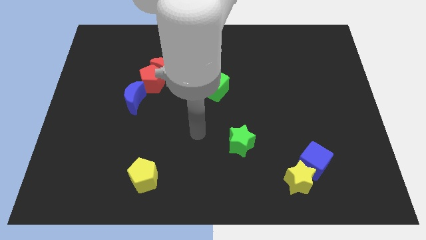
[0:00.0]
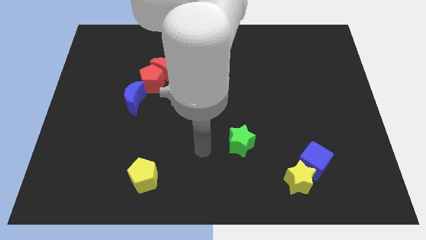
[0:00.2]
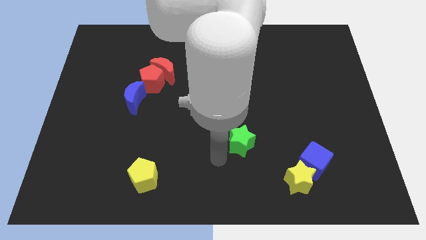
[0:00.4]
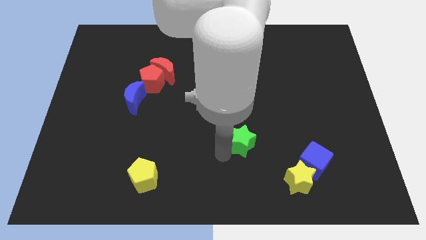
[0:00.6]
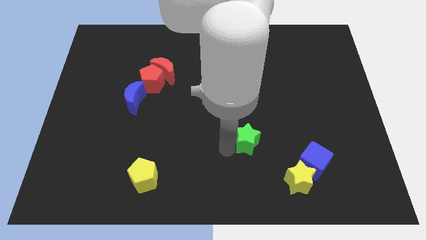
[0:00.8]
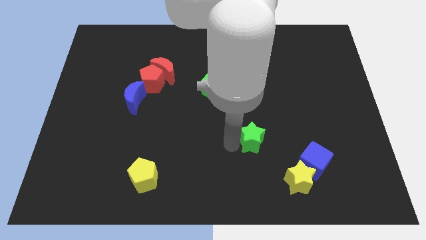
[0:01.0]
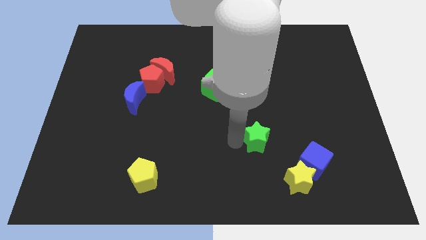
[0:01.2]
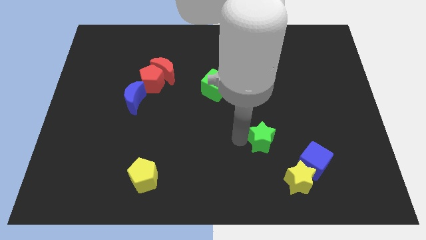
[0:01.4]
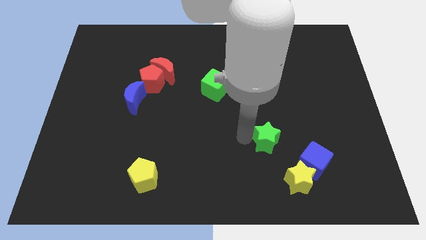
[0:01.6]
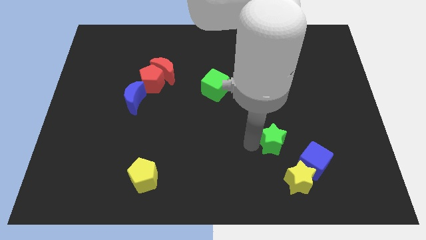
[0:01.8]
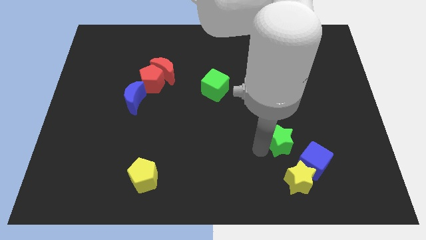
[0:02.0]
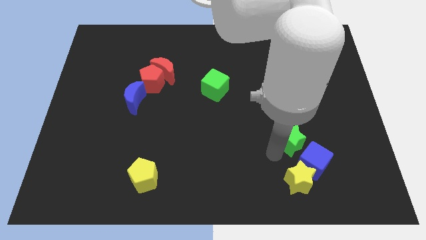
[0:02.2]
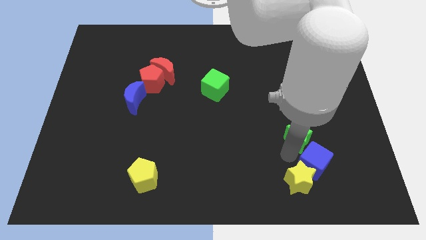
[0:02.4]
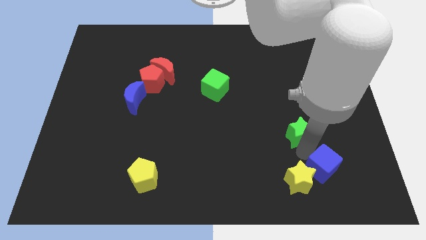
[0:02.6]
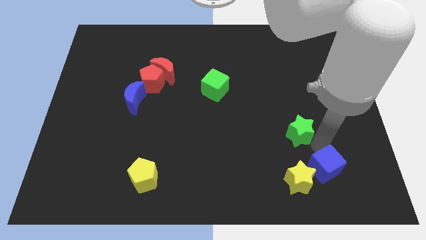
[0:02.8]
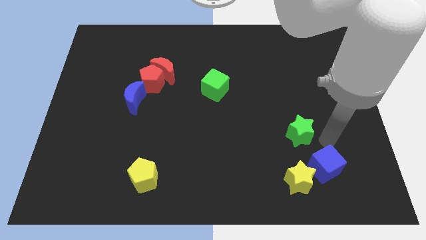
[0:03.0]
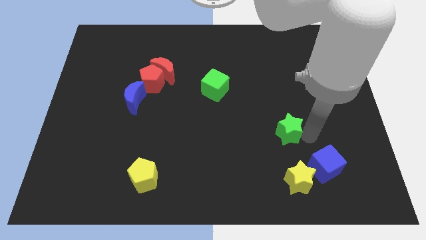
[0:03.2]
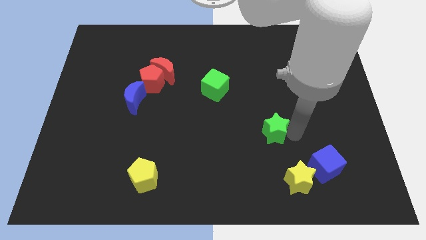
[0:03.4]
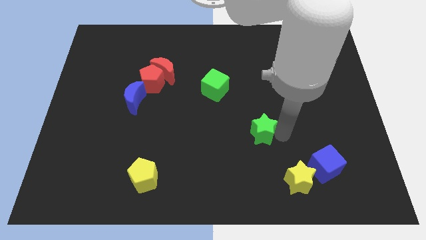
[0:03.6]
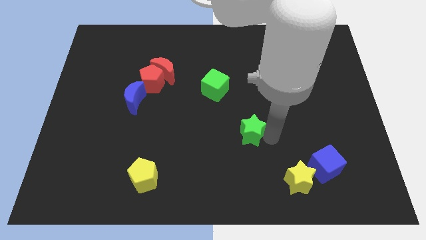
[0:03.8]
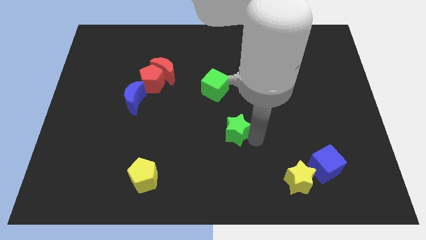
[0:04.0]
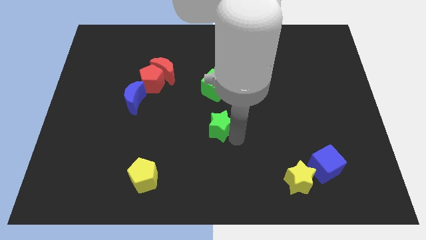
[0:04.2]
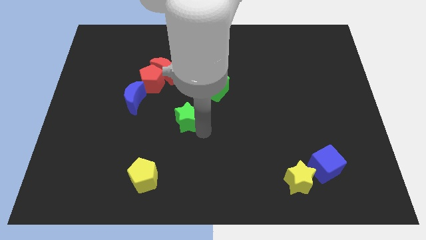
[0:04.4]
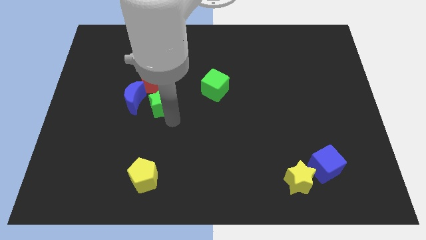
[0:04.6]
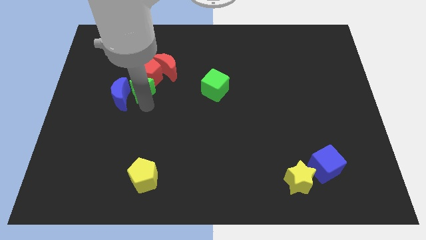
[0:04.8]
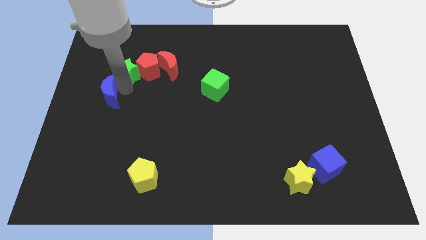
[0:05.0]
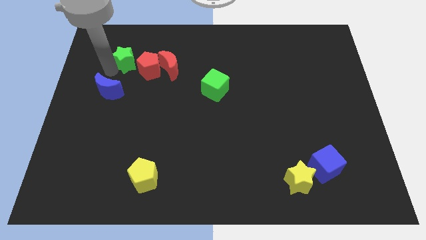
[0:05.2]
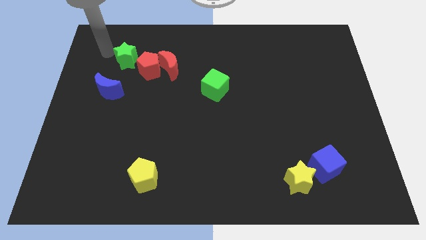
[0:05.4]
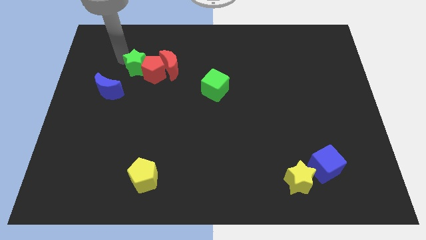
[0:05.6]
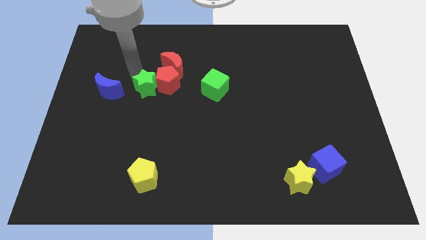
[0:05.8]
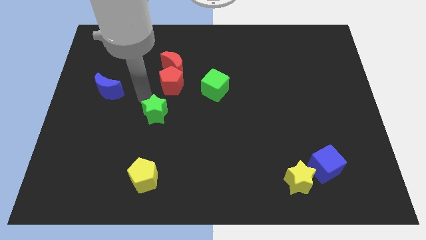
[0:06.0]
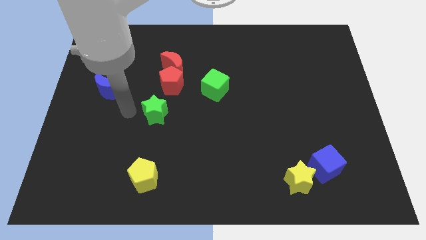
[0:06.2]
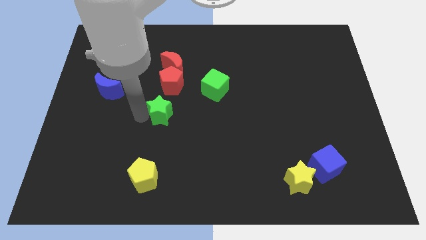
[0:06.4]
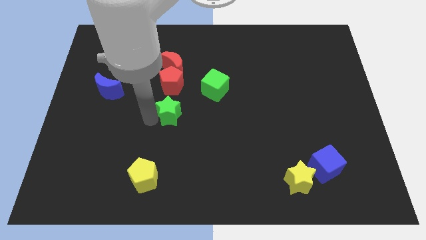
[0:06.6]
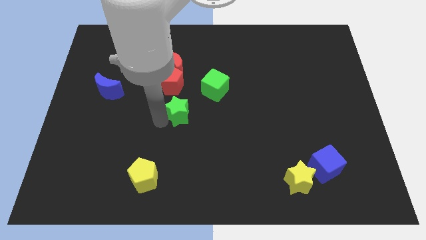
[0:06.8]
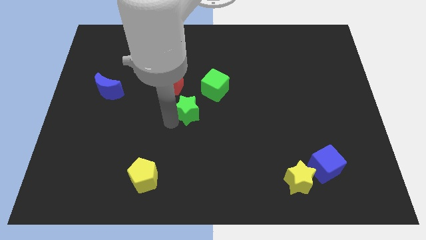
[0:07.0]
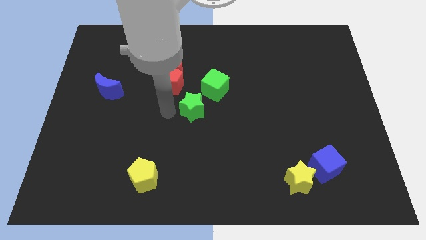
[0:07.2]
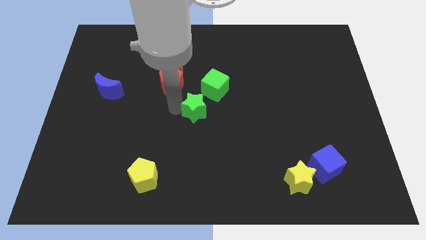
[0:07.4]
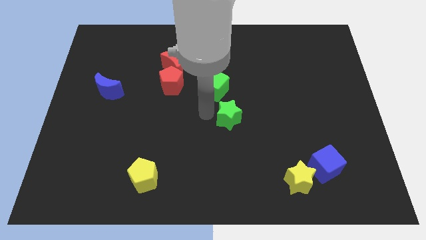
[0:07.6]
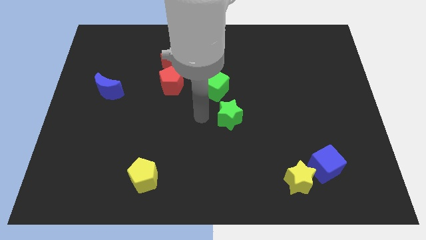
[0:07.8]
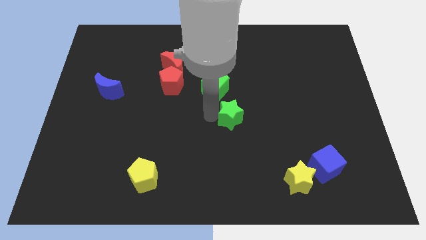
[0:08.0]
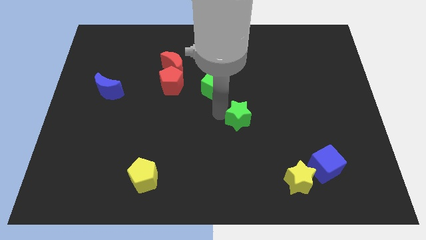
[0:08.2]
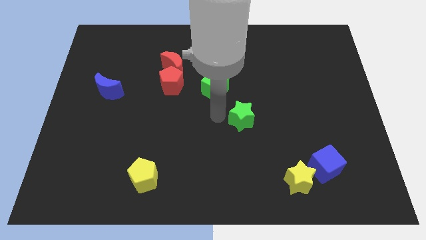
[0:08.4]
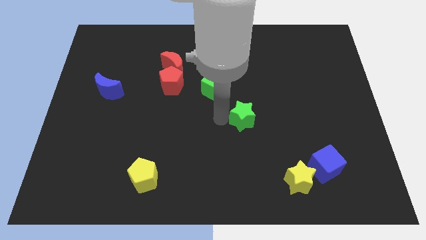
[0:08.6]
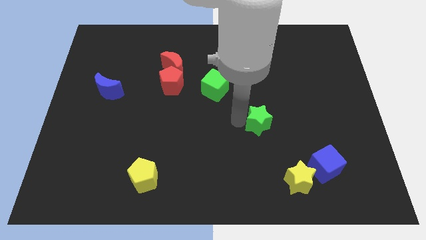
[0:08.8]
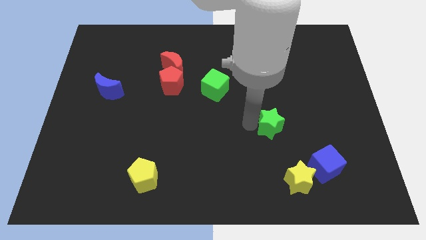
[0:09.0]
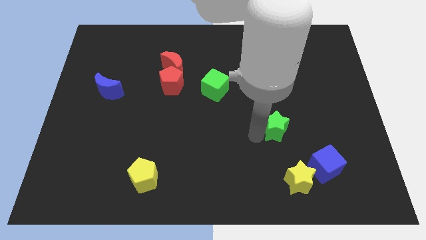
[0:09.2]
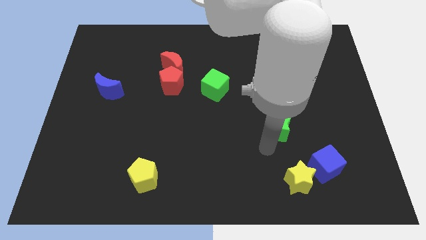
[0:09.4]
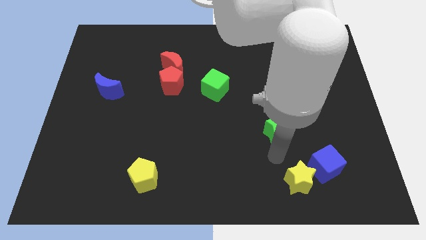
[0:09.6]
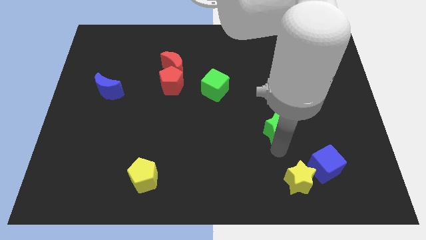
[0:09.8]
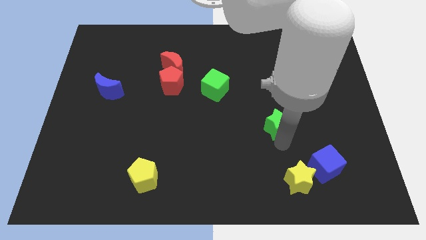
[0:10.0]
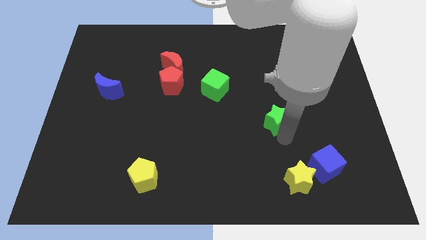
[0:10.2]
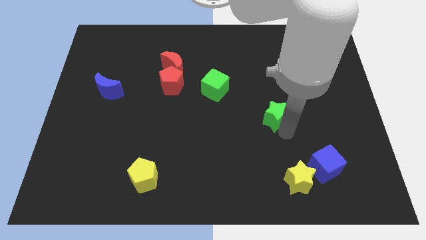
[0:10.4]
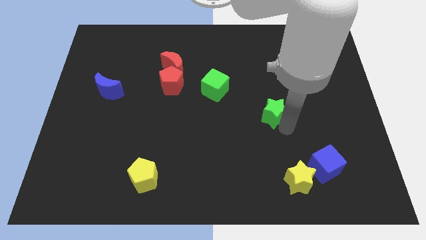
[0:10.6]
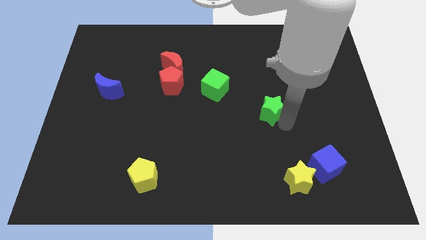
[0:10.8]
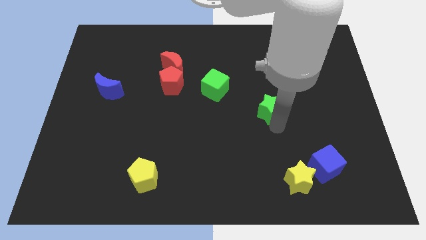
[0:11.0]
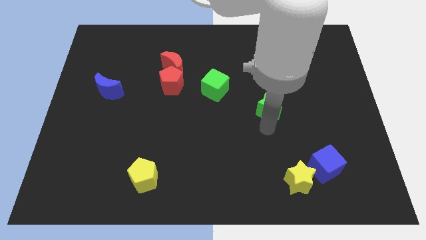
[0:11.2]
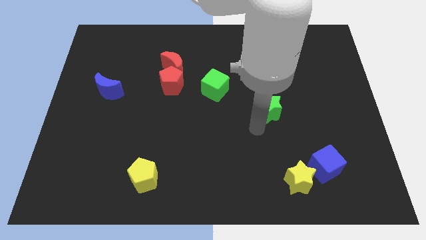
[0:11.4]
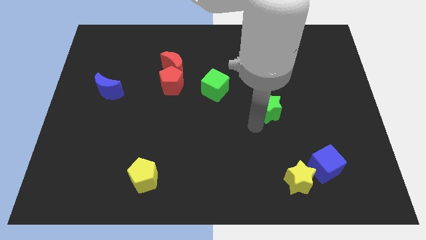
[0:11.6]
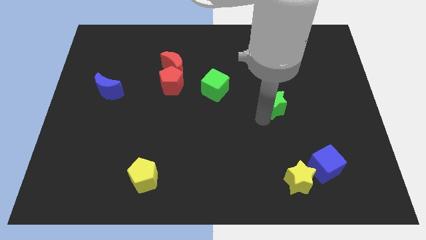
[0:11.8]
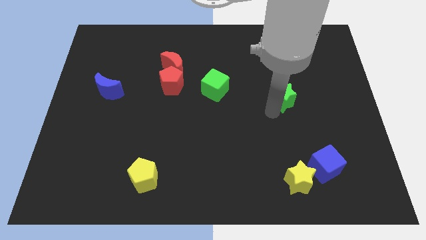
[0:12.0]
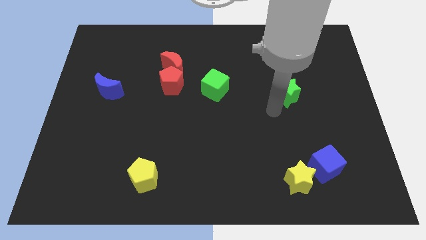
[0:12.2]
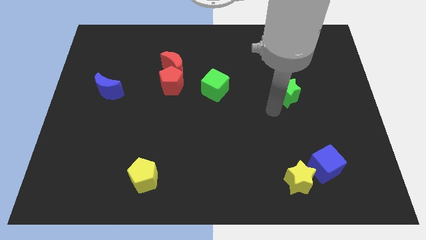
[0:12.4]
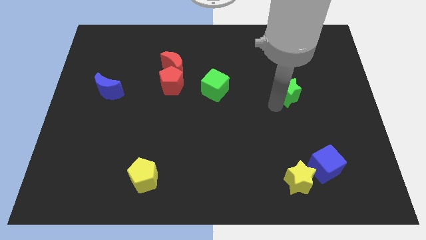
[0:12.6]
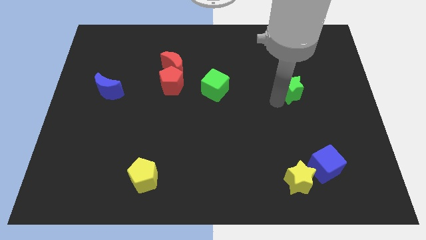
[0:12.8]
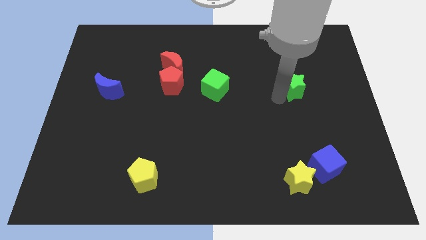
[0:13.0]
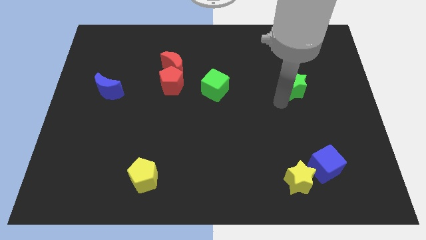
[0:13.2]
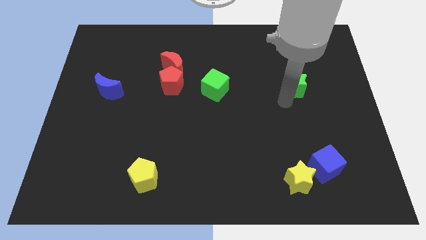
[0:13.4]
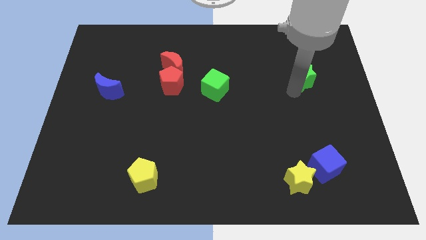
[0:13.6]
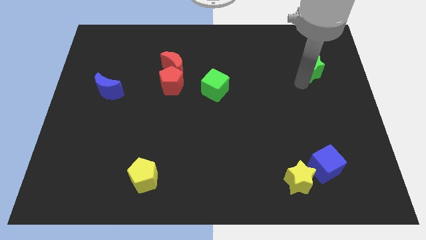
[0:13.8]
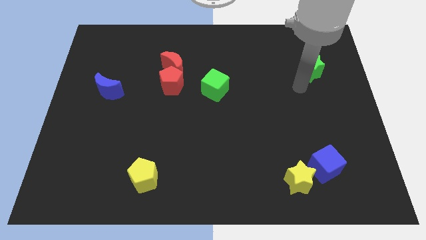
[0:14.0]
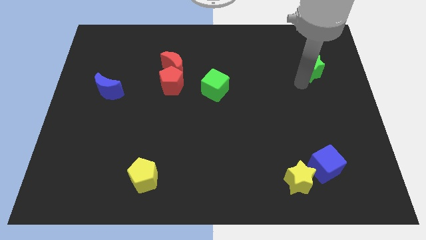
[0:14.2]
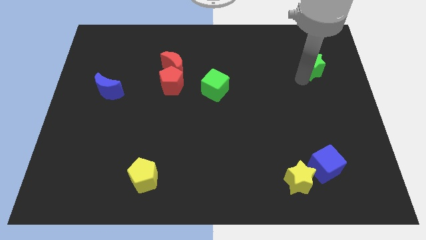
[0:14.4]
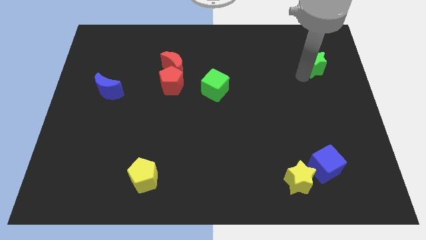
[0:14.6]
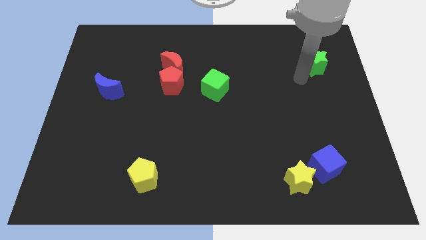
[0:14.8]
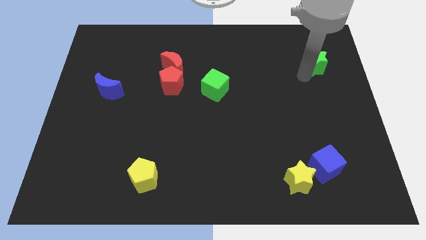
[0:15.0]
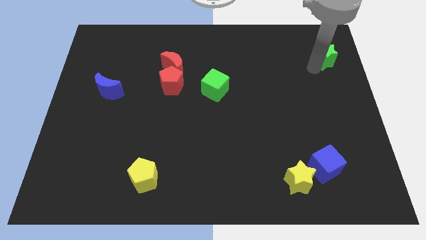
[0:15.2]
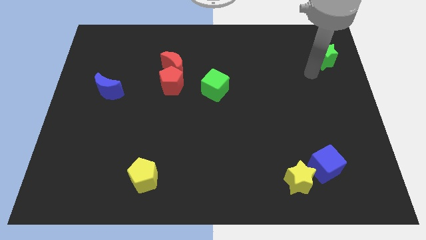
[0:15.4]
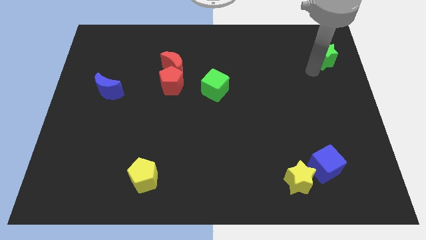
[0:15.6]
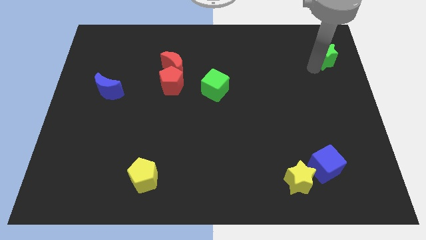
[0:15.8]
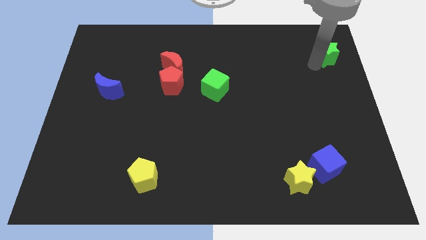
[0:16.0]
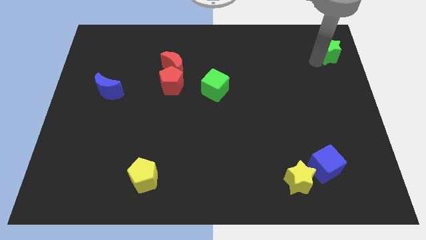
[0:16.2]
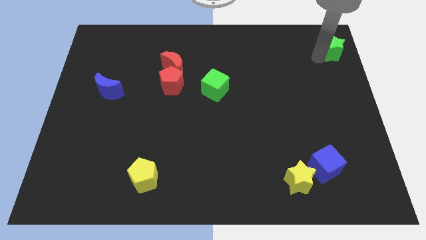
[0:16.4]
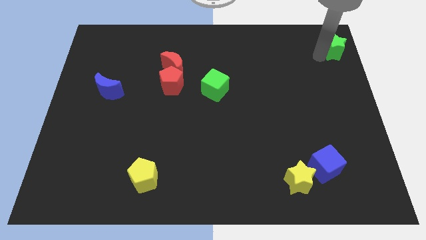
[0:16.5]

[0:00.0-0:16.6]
push the green star to the top right corner
